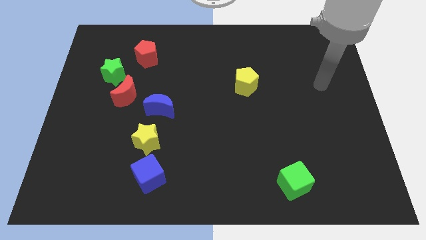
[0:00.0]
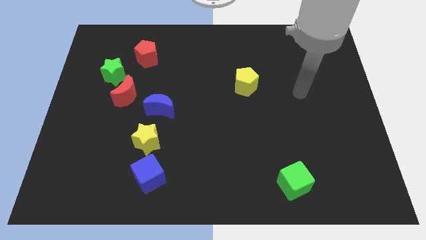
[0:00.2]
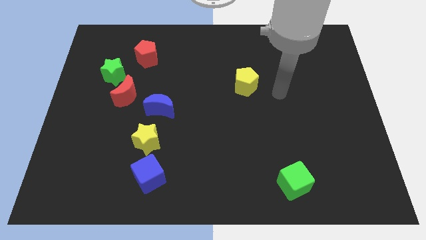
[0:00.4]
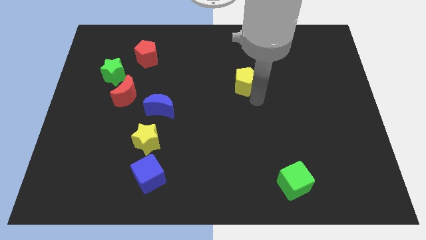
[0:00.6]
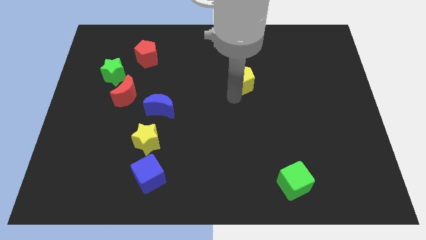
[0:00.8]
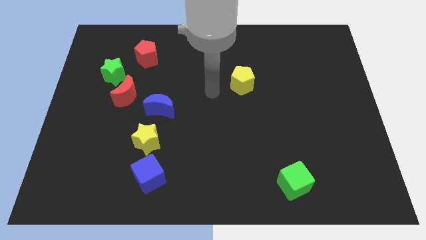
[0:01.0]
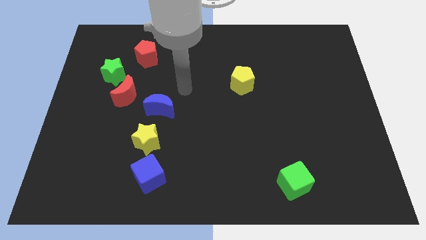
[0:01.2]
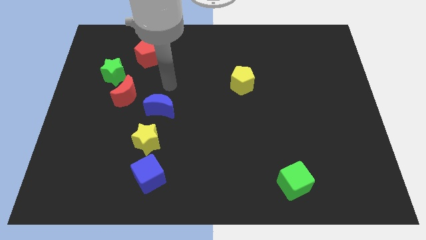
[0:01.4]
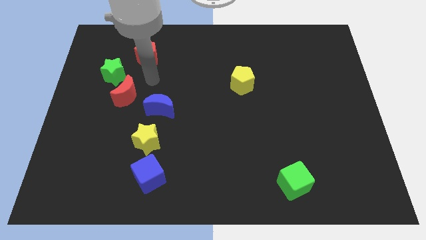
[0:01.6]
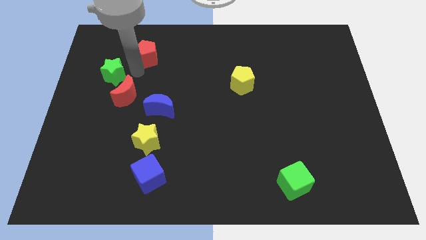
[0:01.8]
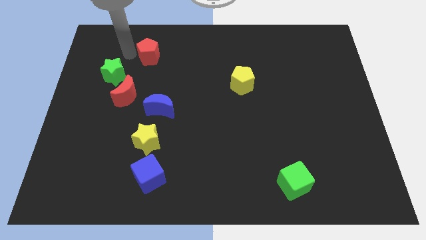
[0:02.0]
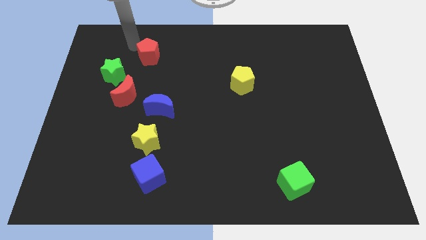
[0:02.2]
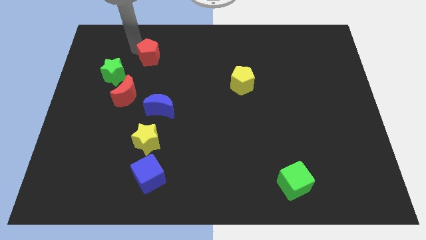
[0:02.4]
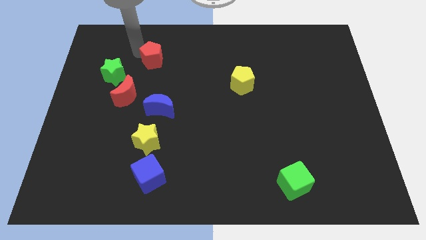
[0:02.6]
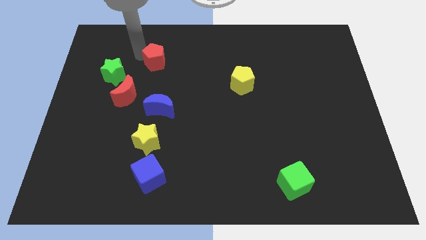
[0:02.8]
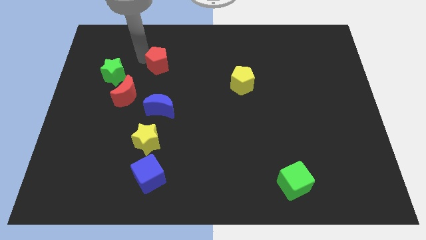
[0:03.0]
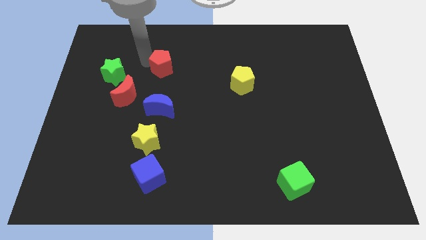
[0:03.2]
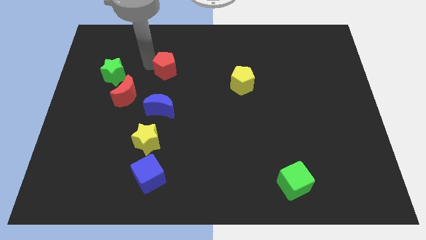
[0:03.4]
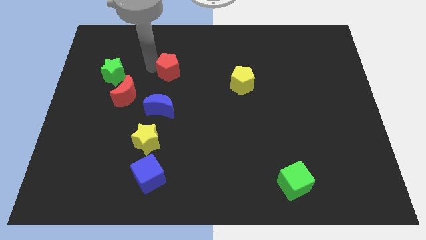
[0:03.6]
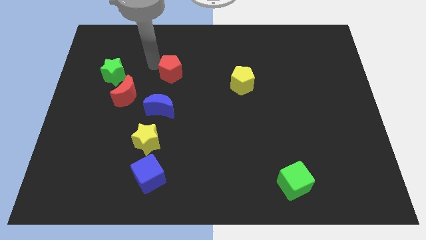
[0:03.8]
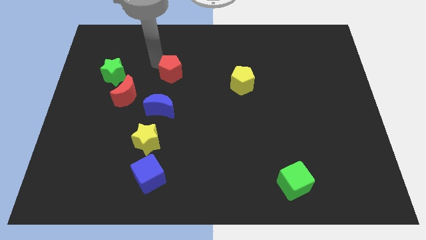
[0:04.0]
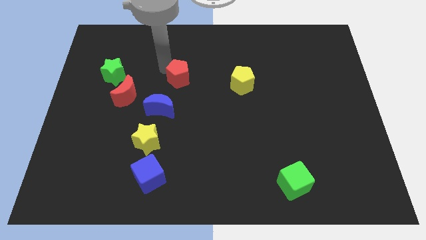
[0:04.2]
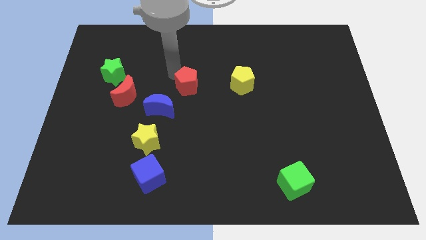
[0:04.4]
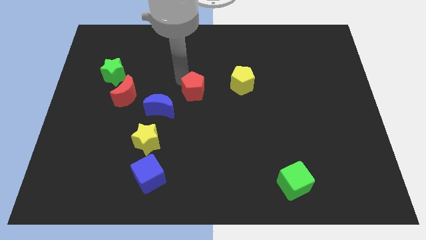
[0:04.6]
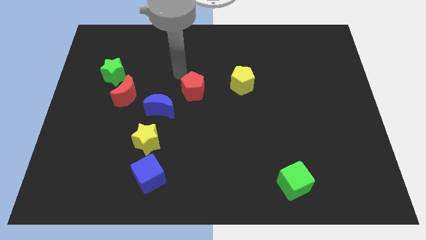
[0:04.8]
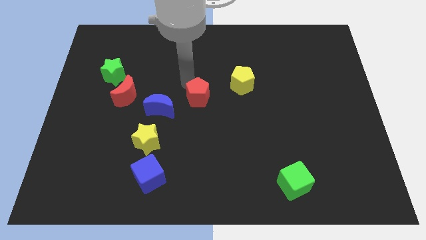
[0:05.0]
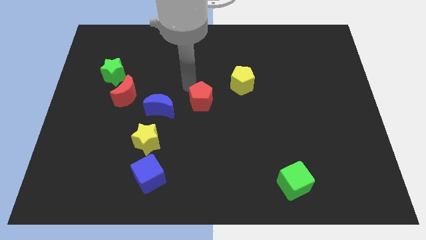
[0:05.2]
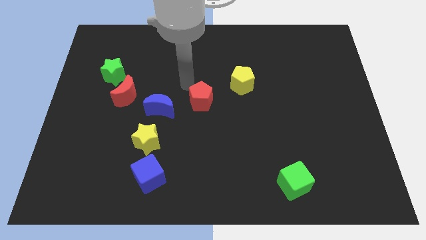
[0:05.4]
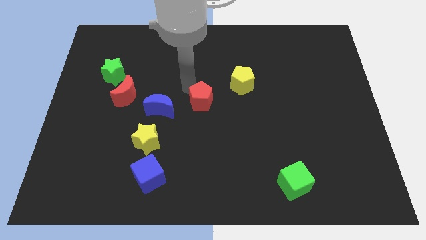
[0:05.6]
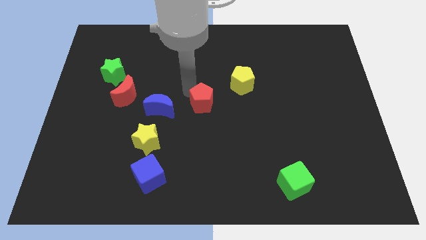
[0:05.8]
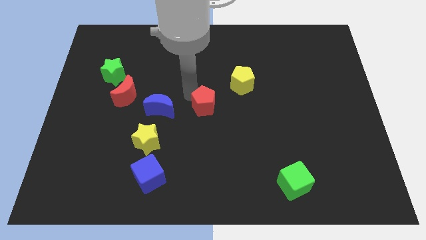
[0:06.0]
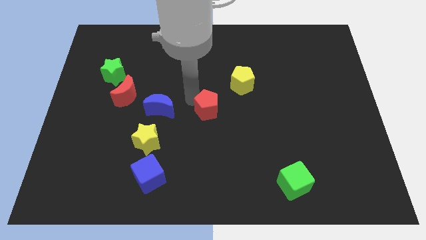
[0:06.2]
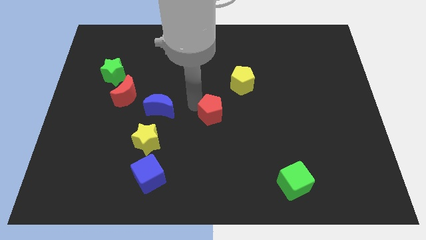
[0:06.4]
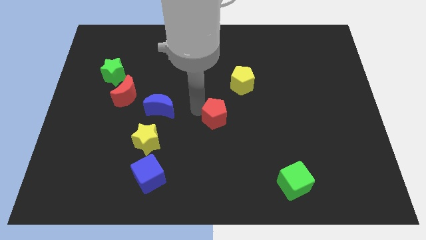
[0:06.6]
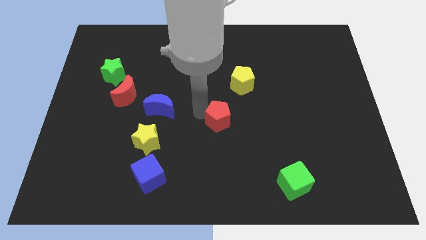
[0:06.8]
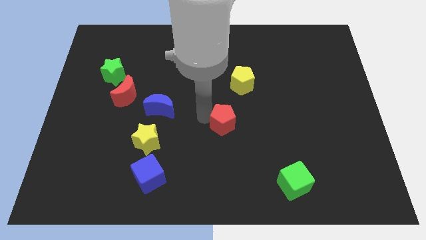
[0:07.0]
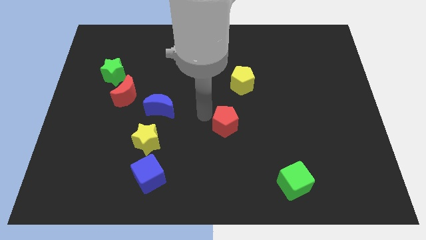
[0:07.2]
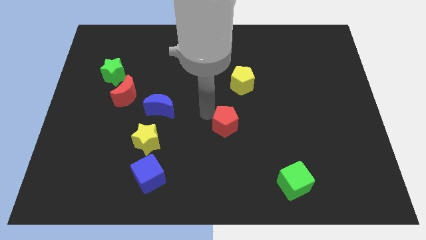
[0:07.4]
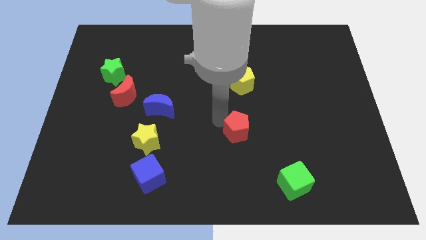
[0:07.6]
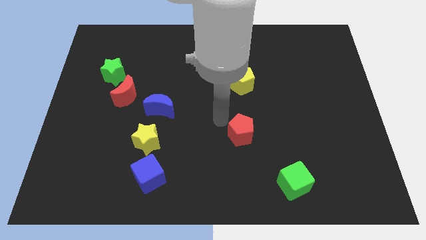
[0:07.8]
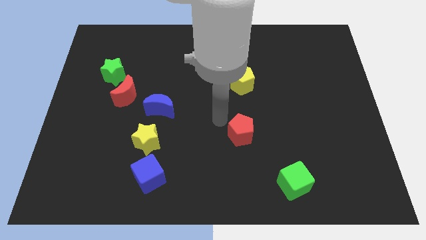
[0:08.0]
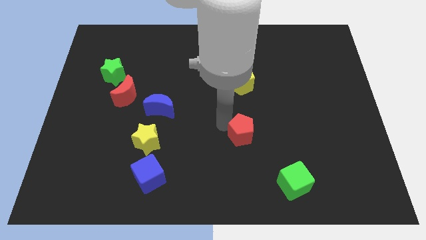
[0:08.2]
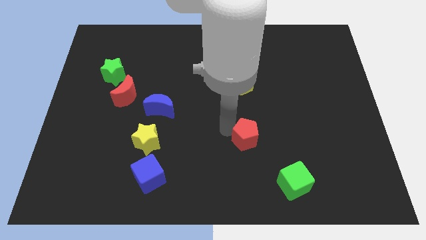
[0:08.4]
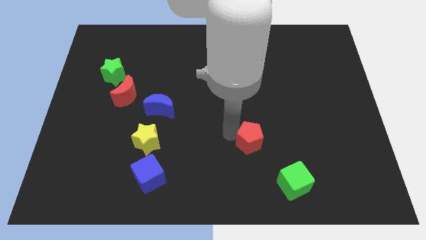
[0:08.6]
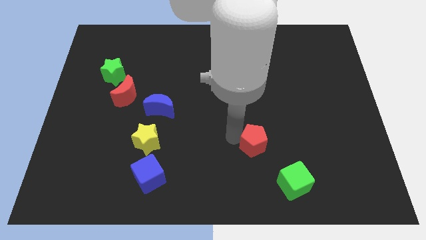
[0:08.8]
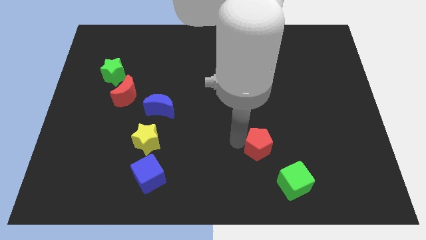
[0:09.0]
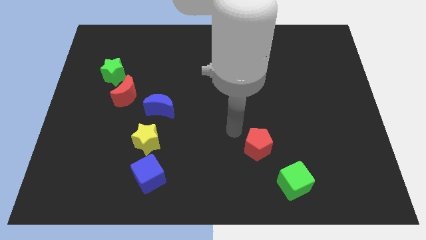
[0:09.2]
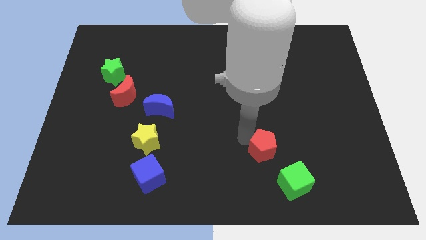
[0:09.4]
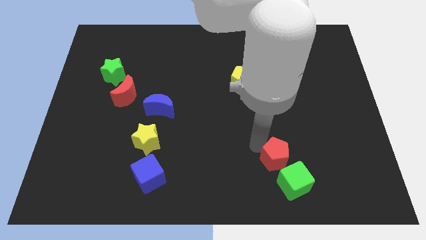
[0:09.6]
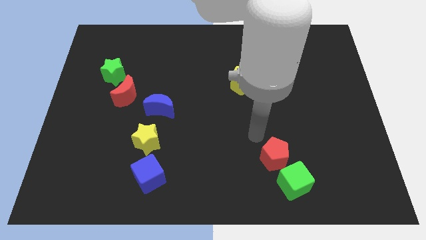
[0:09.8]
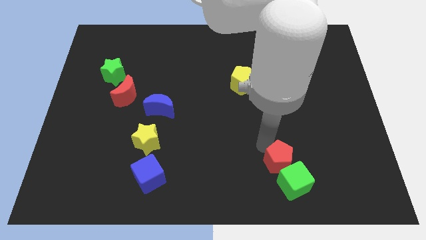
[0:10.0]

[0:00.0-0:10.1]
move the red pentagon towards the green cube

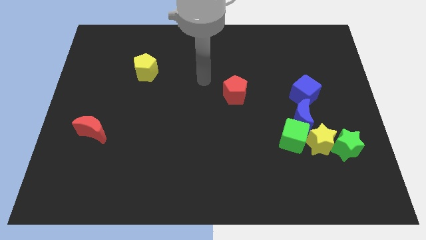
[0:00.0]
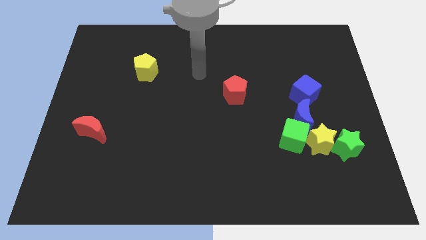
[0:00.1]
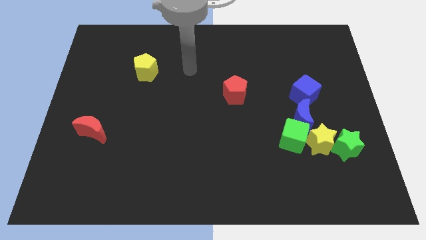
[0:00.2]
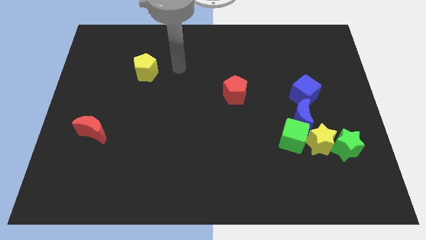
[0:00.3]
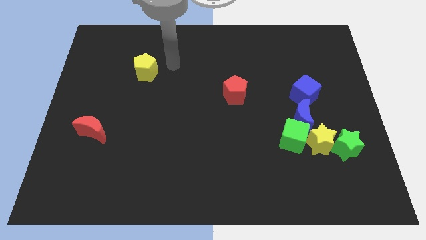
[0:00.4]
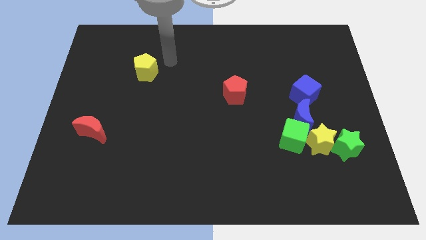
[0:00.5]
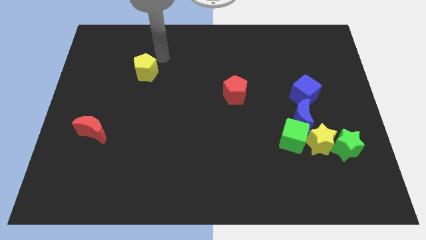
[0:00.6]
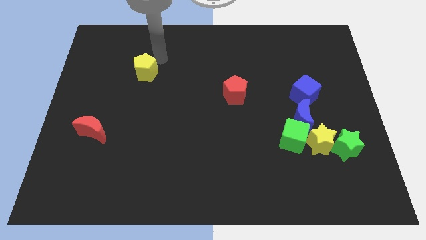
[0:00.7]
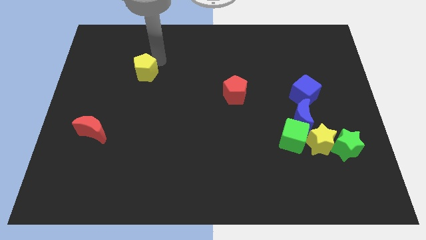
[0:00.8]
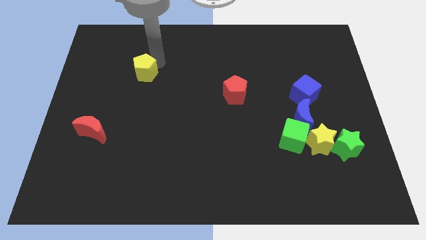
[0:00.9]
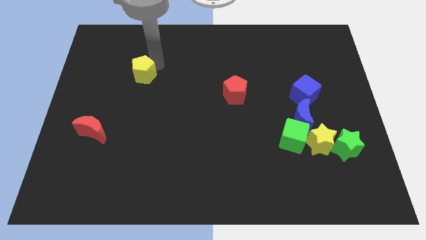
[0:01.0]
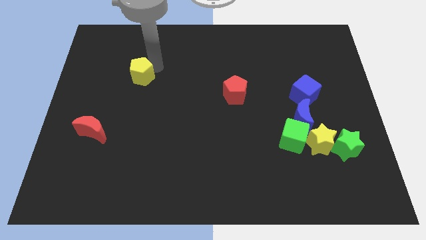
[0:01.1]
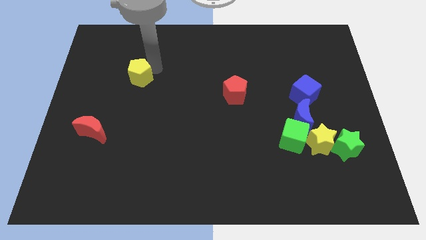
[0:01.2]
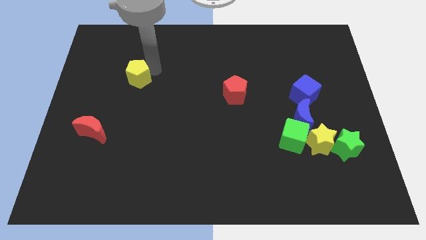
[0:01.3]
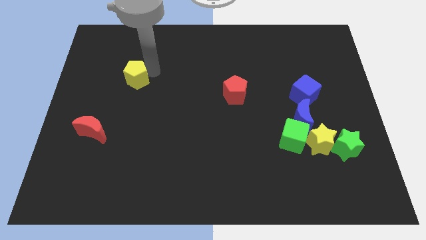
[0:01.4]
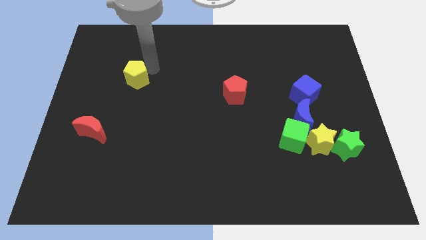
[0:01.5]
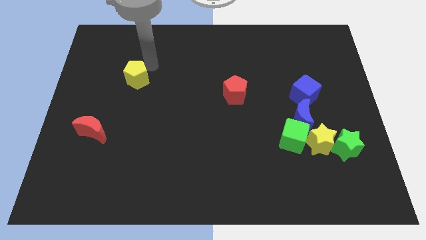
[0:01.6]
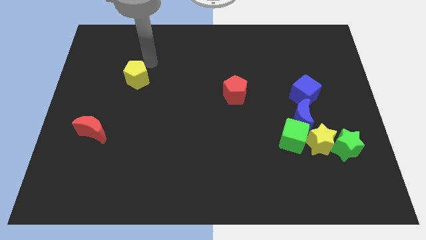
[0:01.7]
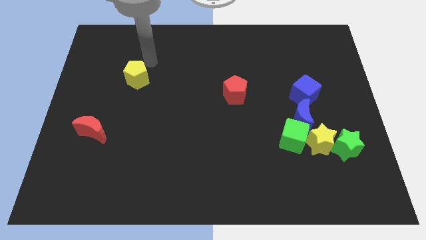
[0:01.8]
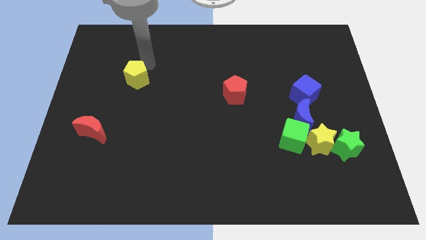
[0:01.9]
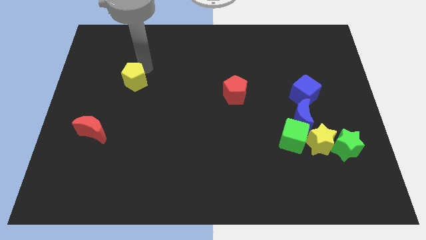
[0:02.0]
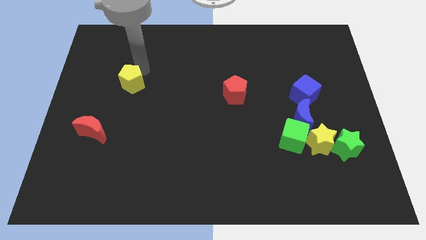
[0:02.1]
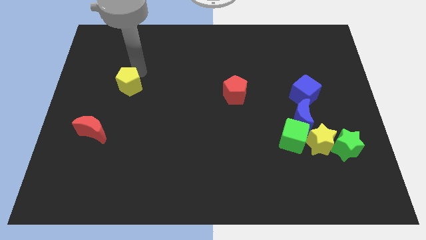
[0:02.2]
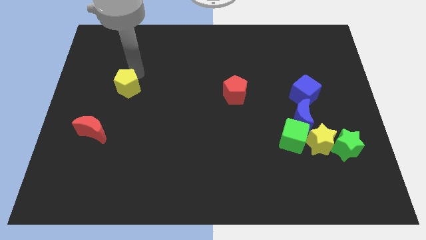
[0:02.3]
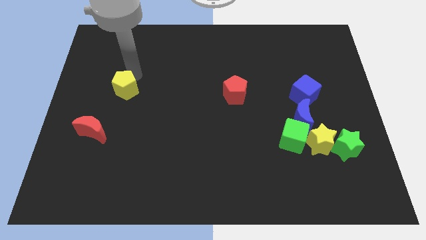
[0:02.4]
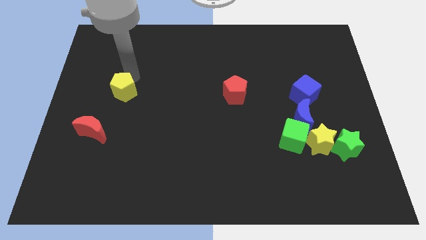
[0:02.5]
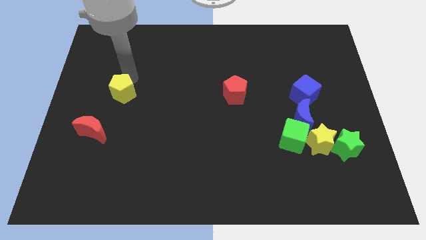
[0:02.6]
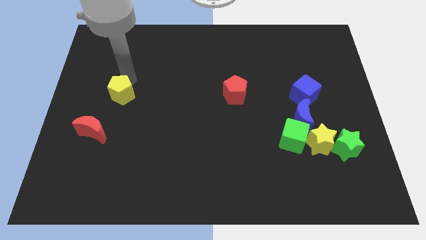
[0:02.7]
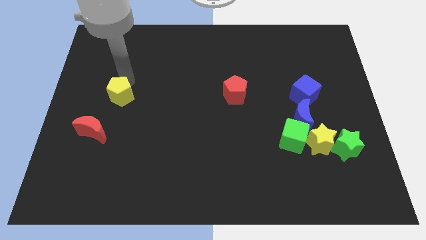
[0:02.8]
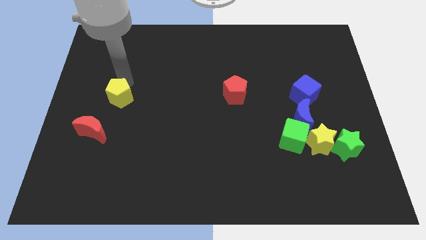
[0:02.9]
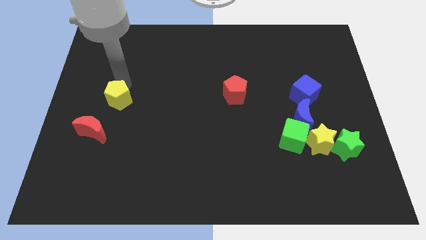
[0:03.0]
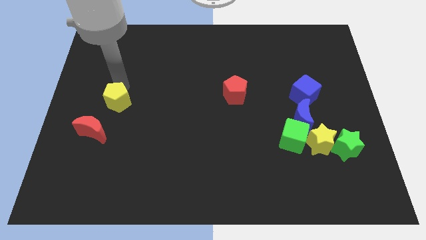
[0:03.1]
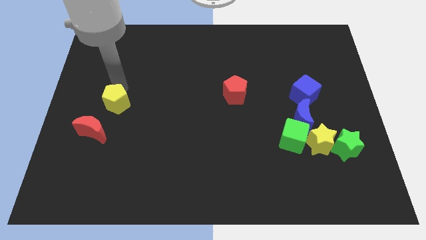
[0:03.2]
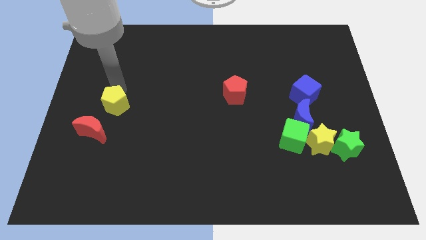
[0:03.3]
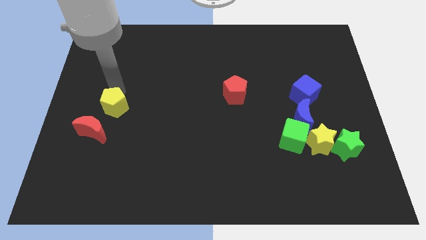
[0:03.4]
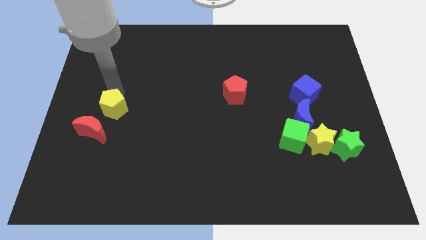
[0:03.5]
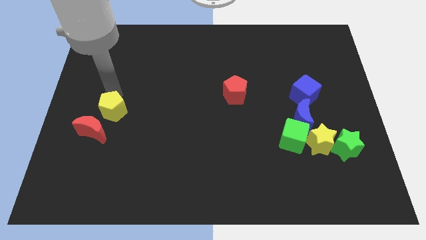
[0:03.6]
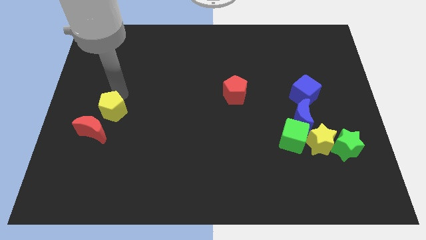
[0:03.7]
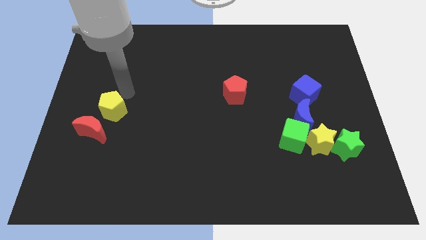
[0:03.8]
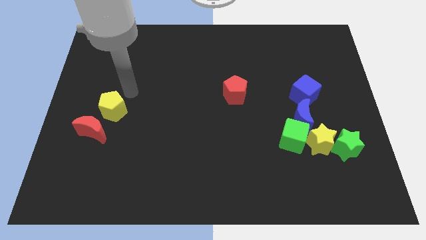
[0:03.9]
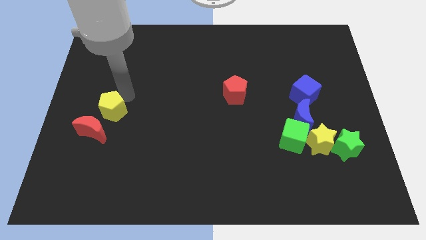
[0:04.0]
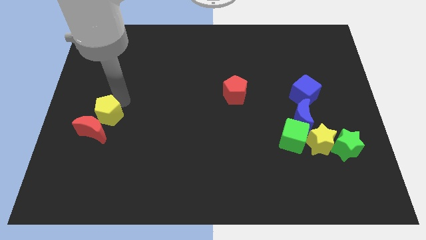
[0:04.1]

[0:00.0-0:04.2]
slide the yellow pentagon next to the red moon
